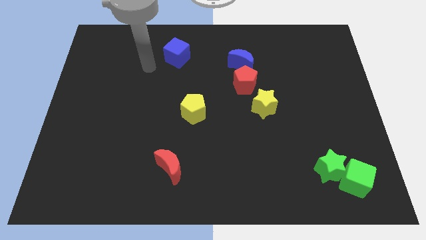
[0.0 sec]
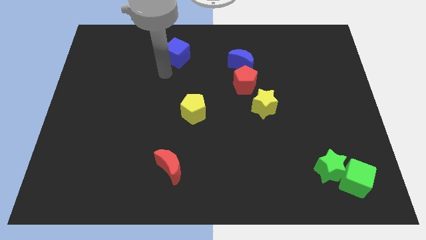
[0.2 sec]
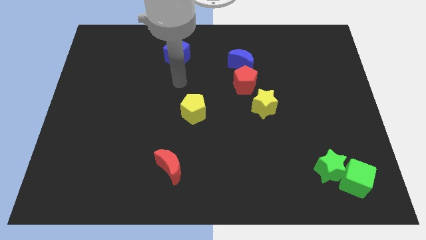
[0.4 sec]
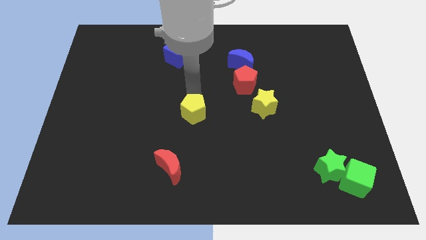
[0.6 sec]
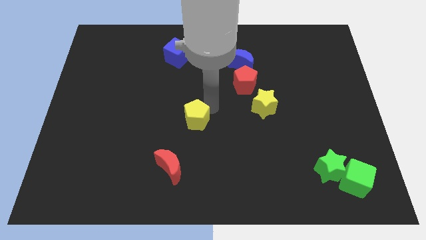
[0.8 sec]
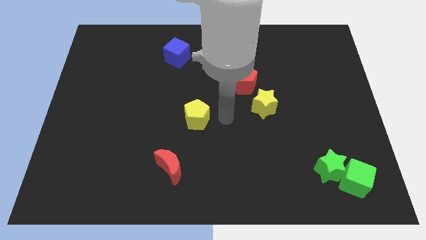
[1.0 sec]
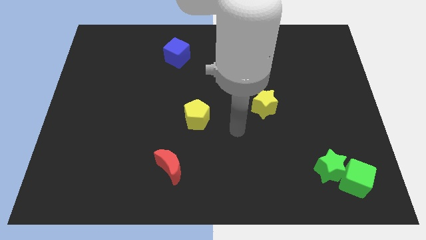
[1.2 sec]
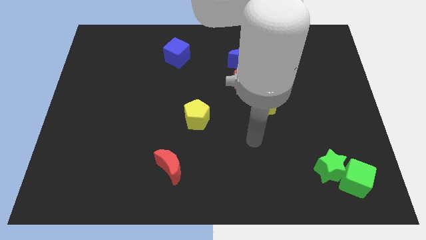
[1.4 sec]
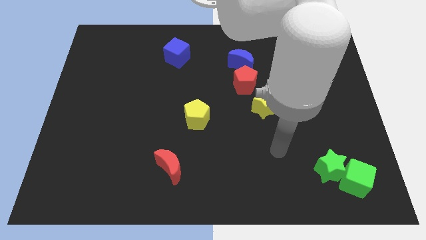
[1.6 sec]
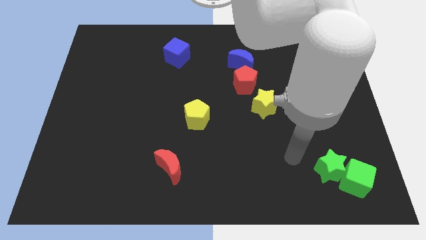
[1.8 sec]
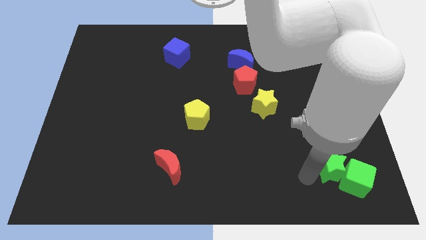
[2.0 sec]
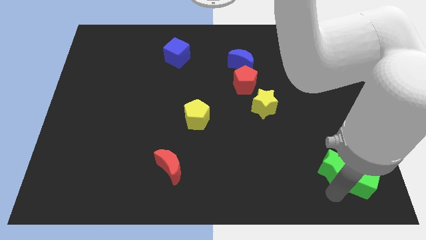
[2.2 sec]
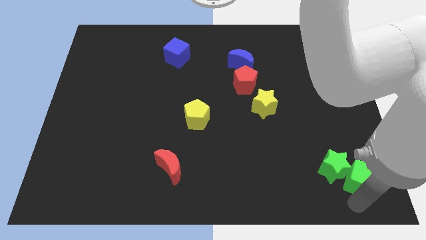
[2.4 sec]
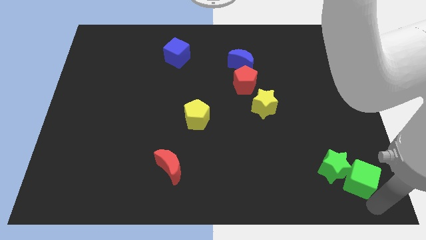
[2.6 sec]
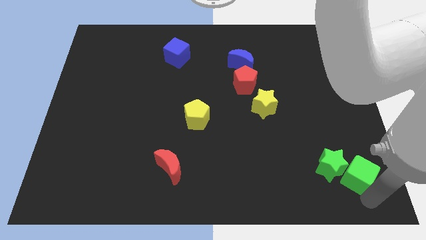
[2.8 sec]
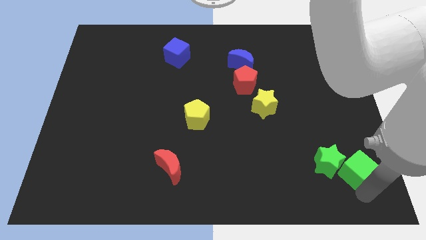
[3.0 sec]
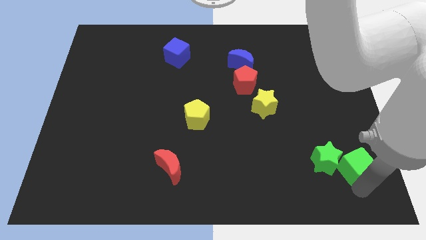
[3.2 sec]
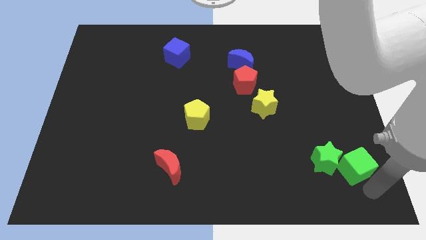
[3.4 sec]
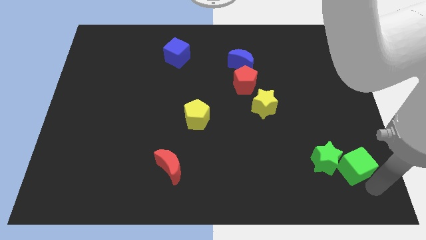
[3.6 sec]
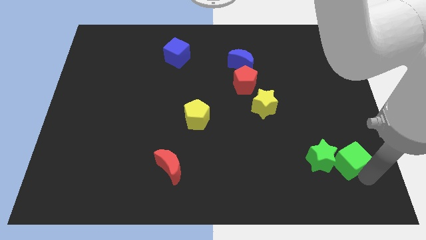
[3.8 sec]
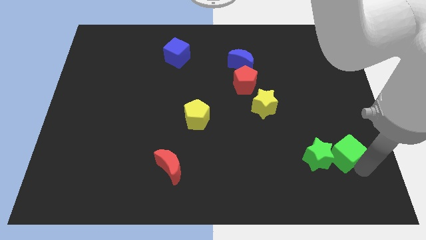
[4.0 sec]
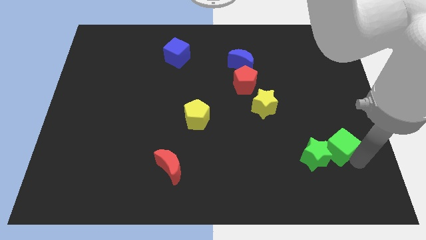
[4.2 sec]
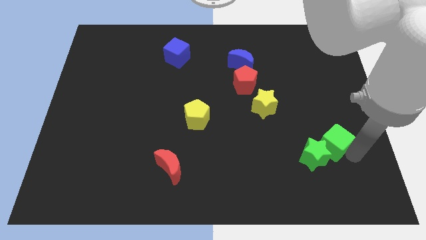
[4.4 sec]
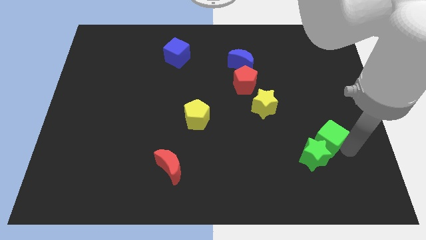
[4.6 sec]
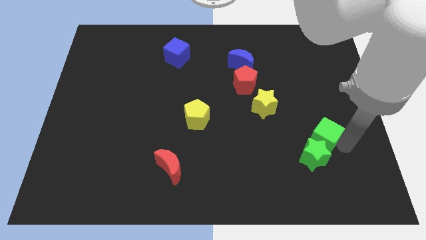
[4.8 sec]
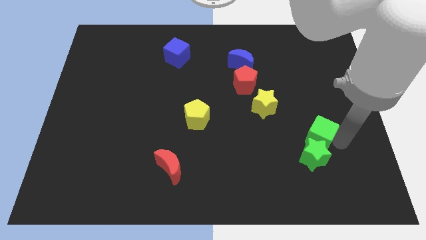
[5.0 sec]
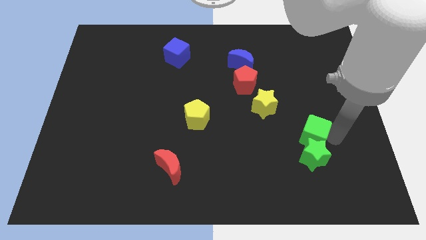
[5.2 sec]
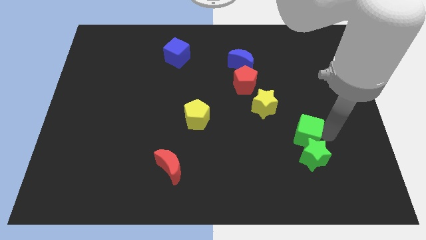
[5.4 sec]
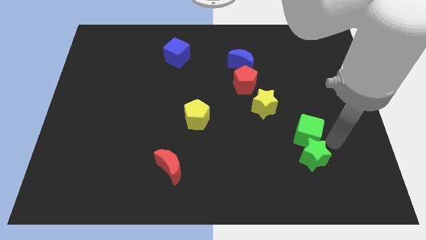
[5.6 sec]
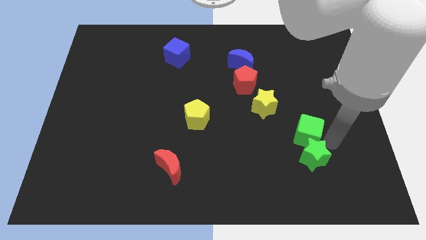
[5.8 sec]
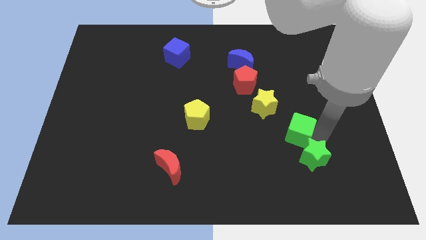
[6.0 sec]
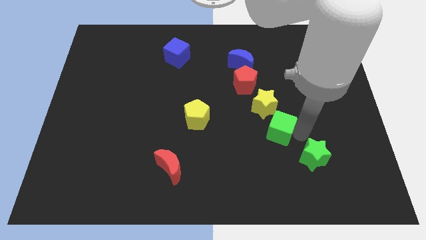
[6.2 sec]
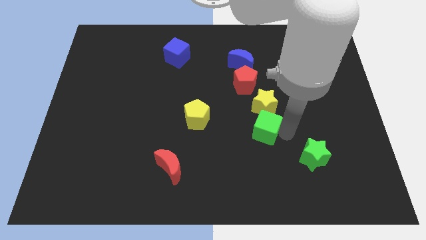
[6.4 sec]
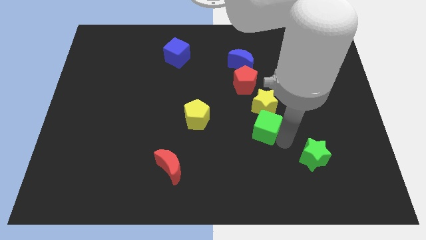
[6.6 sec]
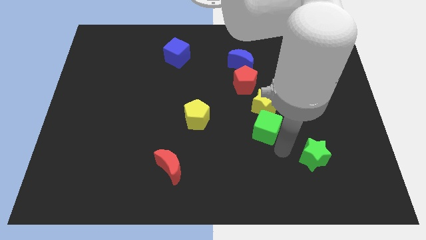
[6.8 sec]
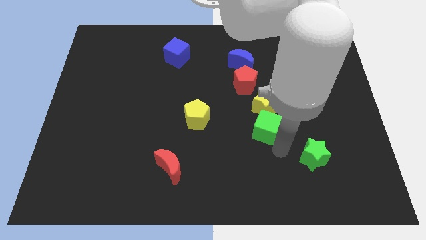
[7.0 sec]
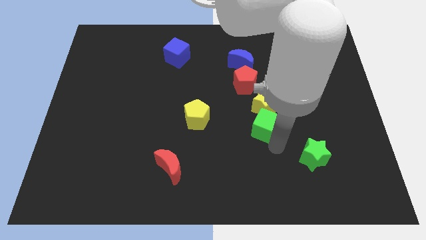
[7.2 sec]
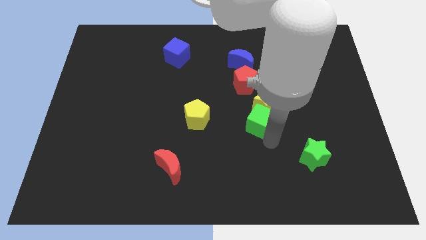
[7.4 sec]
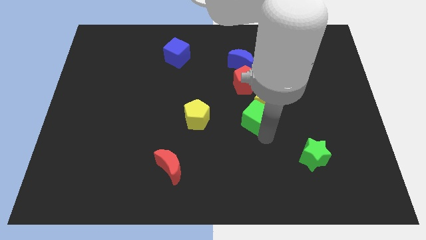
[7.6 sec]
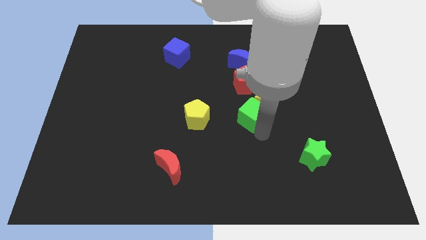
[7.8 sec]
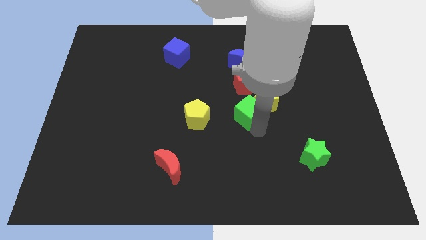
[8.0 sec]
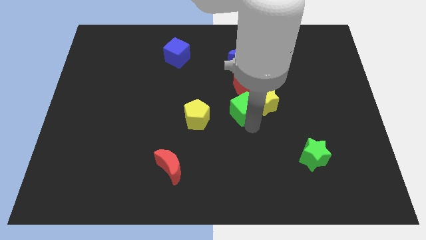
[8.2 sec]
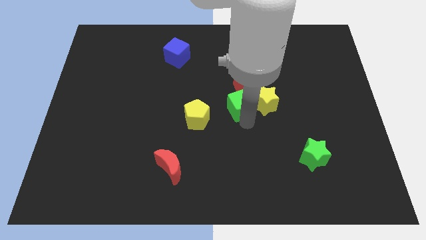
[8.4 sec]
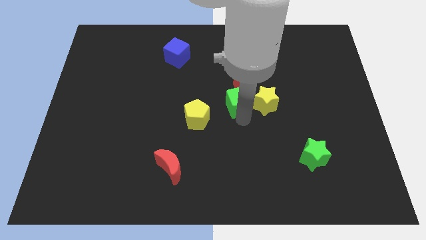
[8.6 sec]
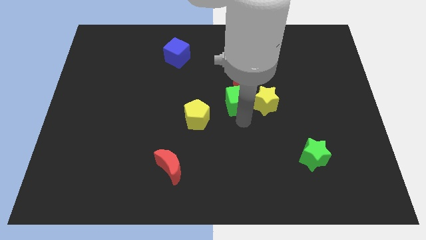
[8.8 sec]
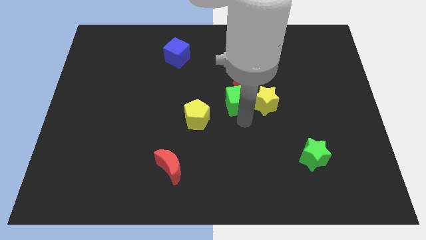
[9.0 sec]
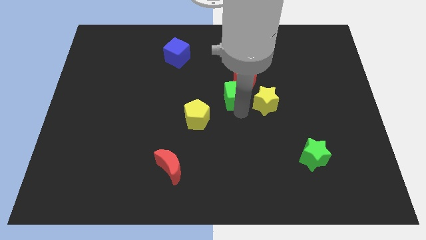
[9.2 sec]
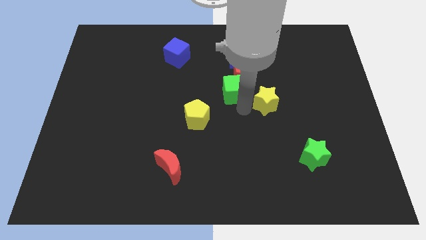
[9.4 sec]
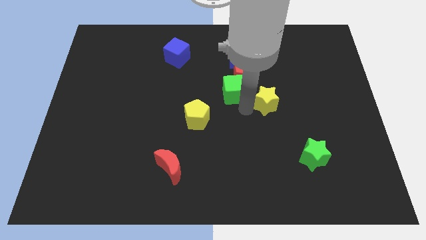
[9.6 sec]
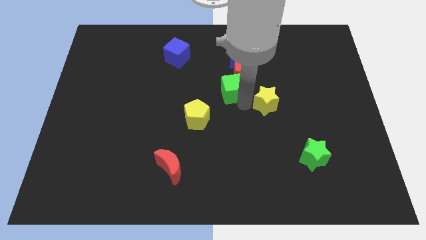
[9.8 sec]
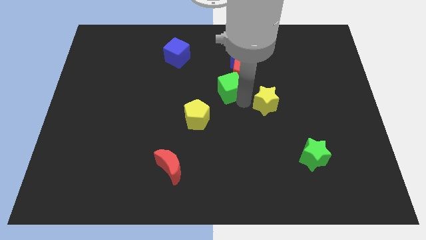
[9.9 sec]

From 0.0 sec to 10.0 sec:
put the green cube to the bottom left of the blue moon

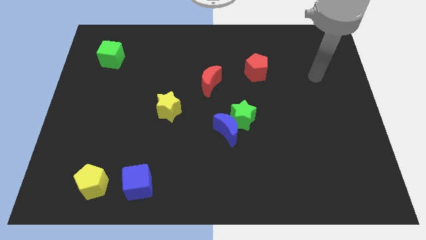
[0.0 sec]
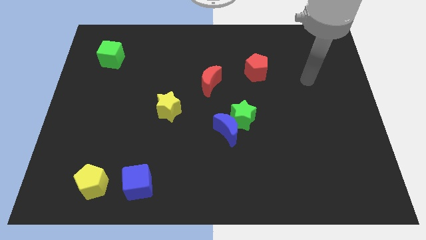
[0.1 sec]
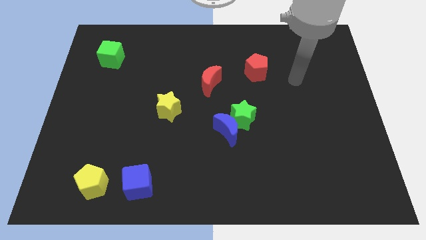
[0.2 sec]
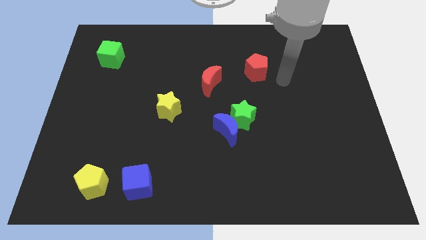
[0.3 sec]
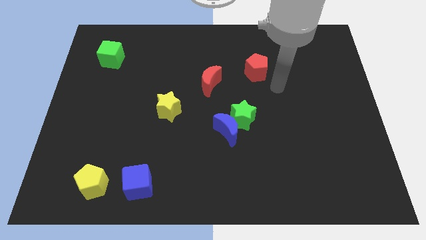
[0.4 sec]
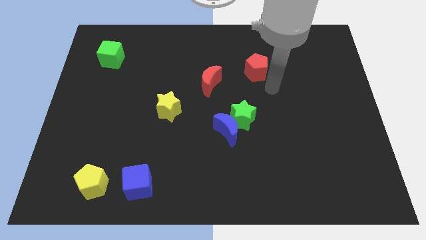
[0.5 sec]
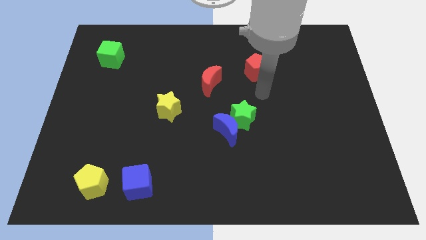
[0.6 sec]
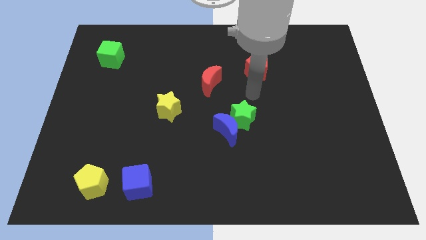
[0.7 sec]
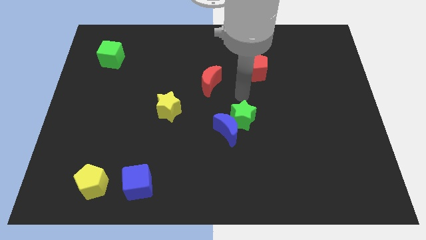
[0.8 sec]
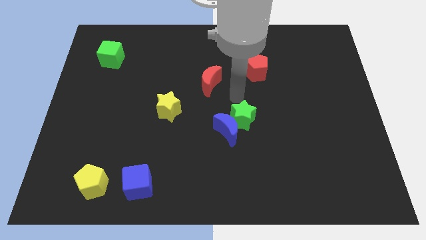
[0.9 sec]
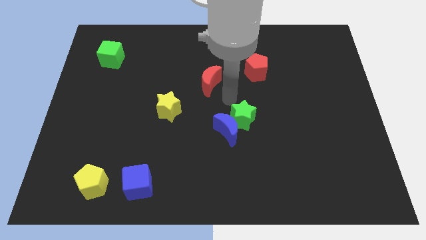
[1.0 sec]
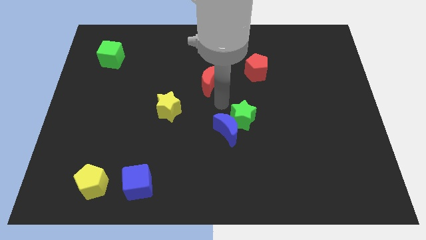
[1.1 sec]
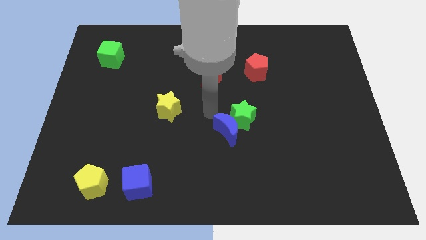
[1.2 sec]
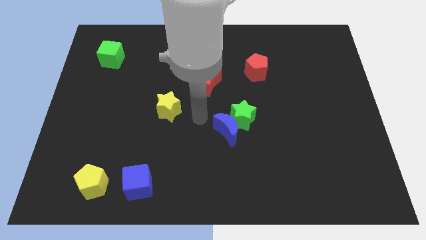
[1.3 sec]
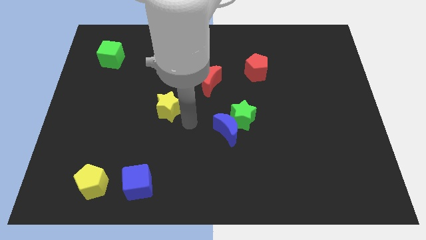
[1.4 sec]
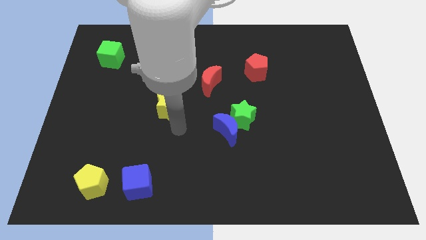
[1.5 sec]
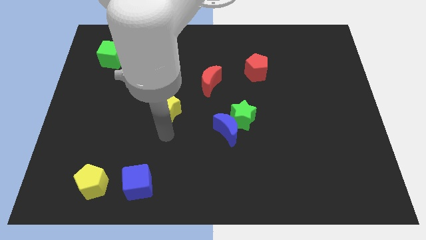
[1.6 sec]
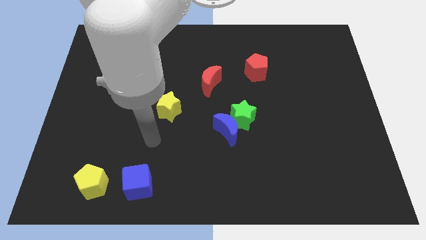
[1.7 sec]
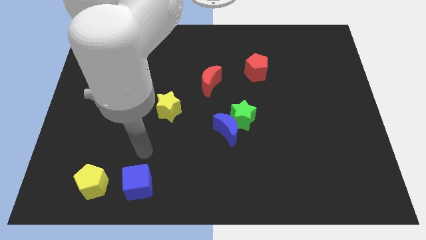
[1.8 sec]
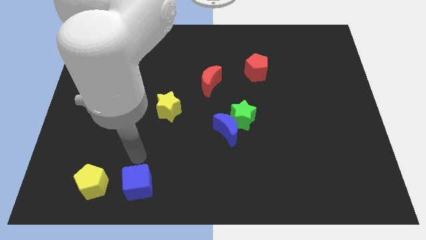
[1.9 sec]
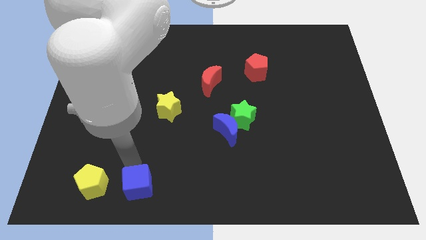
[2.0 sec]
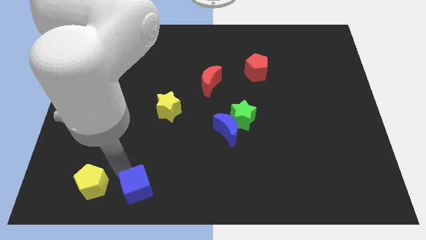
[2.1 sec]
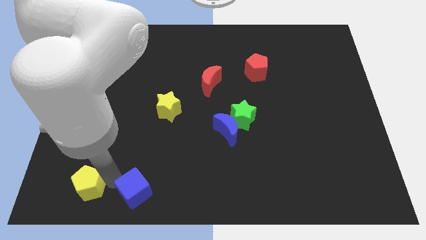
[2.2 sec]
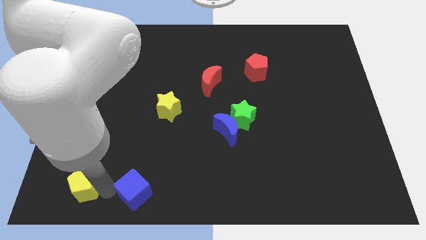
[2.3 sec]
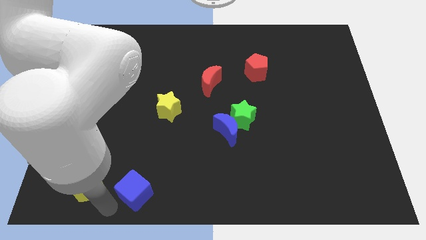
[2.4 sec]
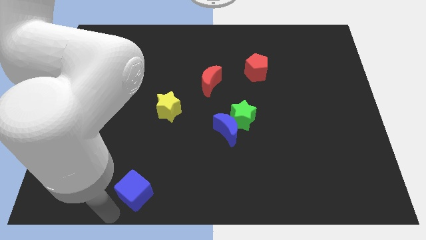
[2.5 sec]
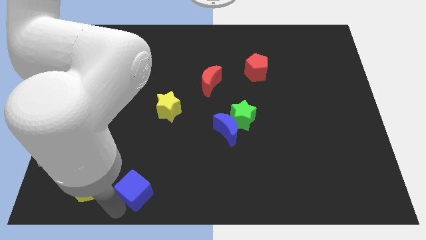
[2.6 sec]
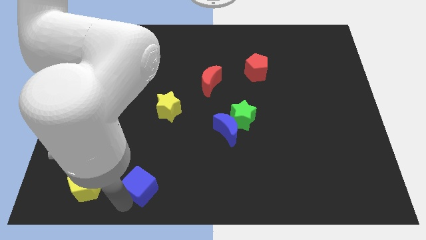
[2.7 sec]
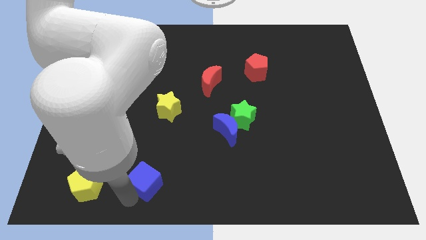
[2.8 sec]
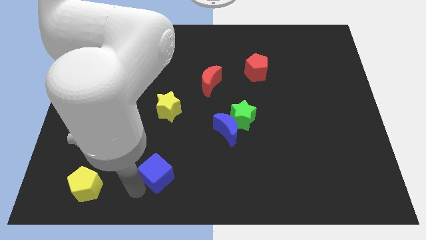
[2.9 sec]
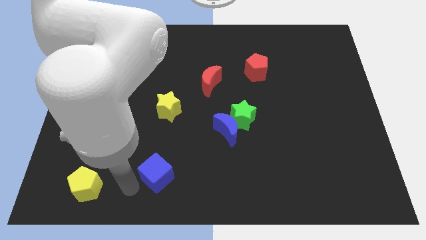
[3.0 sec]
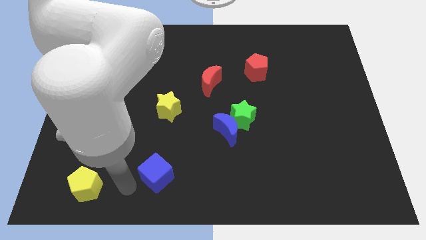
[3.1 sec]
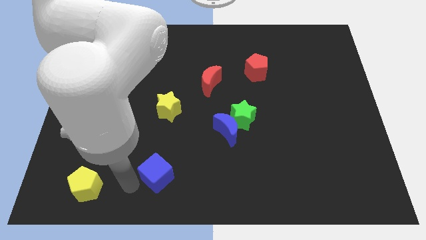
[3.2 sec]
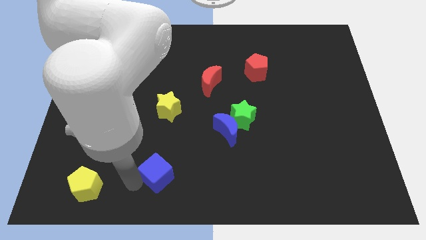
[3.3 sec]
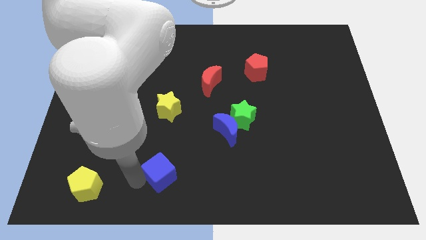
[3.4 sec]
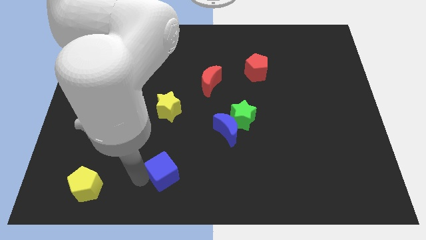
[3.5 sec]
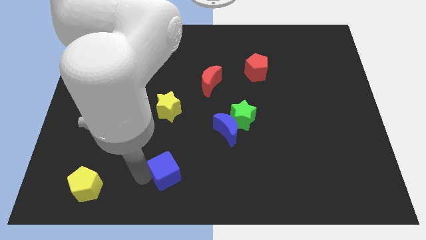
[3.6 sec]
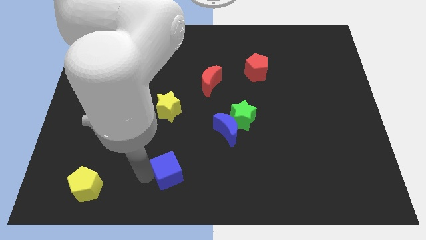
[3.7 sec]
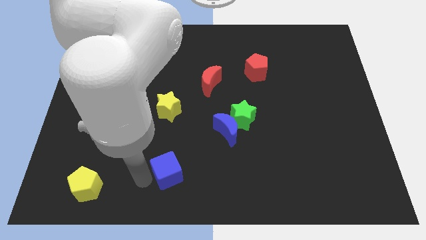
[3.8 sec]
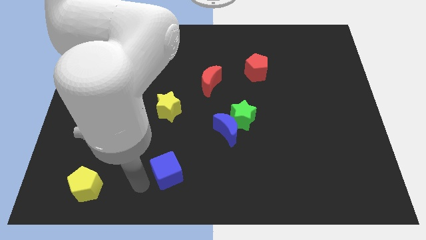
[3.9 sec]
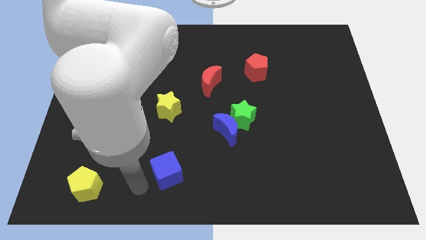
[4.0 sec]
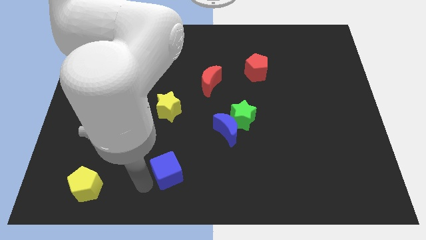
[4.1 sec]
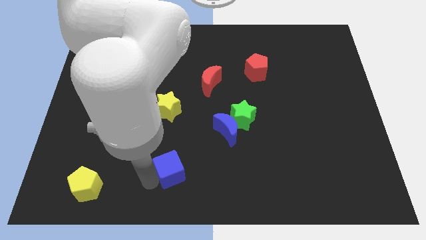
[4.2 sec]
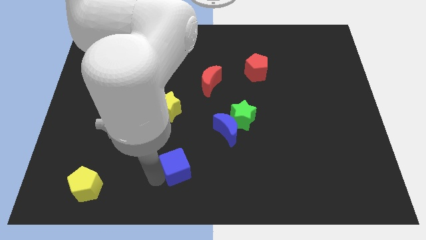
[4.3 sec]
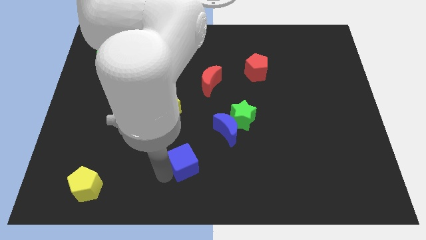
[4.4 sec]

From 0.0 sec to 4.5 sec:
put the blue cube to the bottom left side of the blue moon
